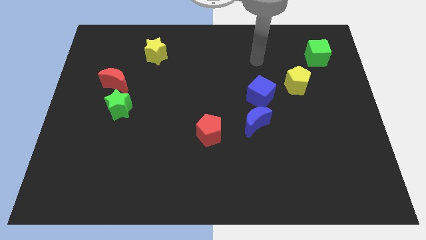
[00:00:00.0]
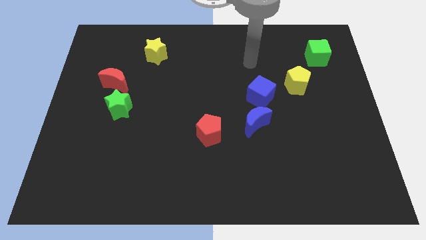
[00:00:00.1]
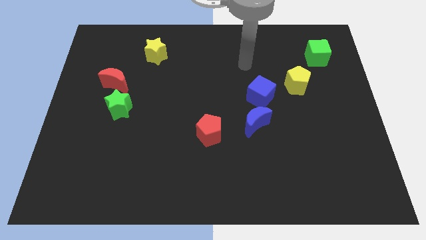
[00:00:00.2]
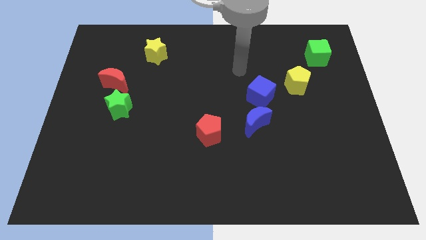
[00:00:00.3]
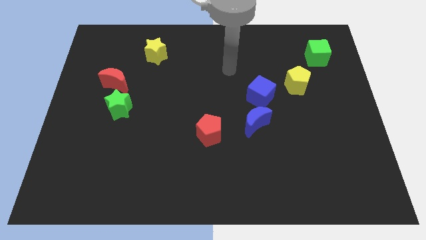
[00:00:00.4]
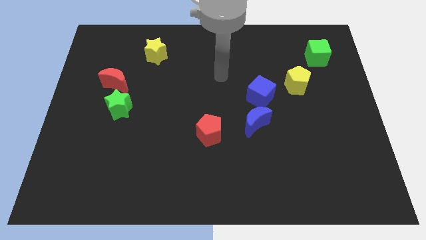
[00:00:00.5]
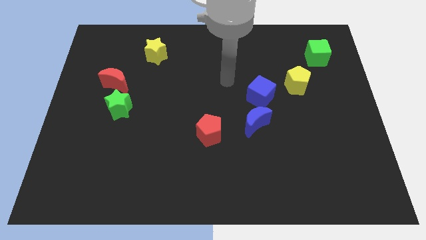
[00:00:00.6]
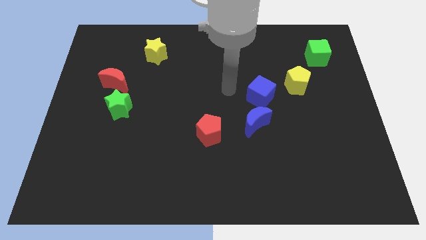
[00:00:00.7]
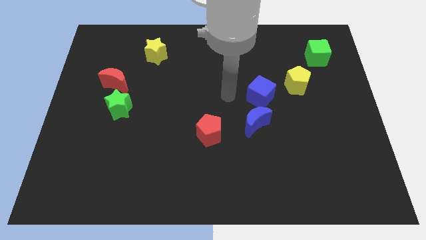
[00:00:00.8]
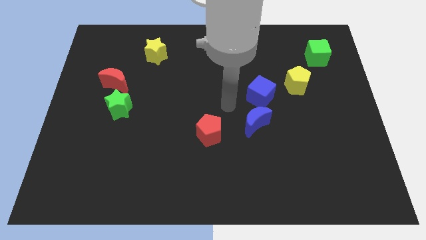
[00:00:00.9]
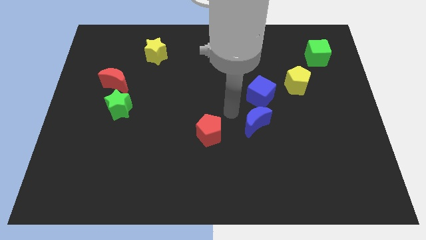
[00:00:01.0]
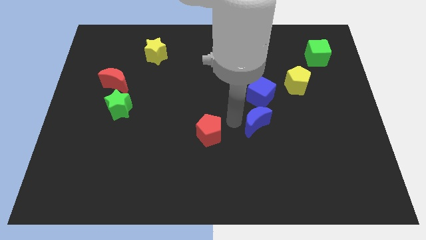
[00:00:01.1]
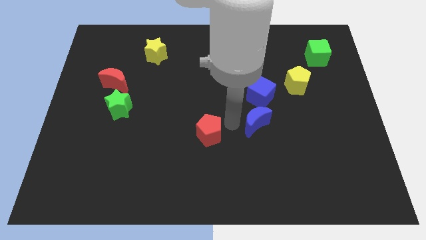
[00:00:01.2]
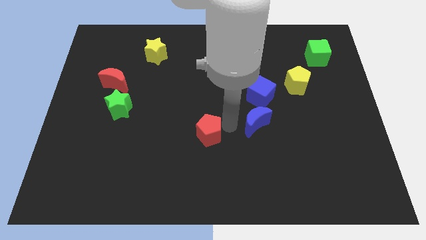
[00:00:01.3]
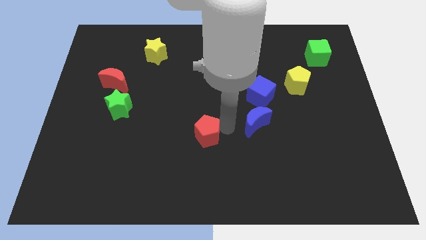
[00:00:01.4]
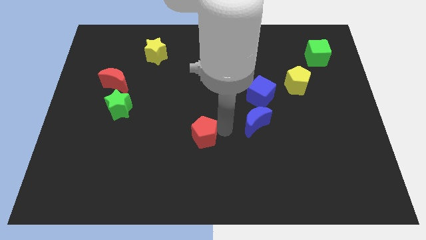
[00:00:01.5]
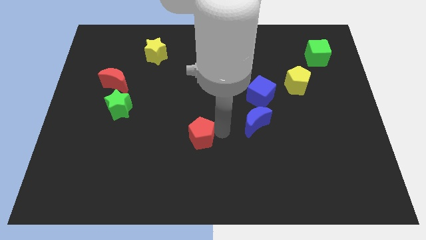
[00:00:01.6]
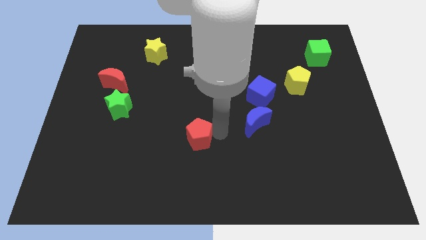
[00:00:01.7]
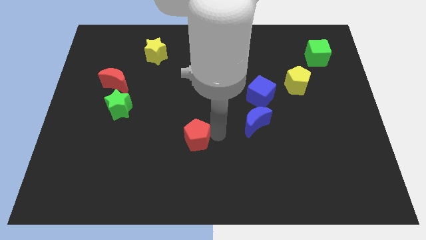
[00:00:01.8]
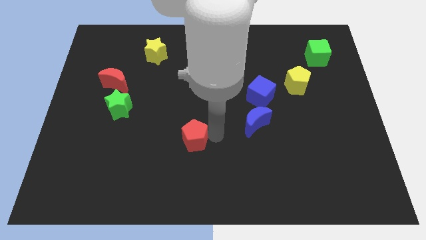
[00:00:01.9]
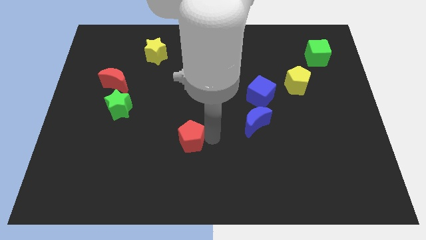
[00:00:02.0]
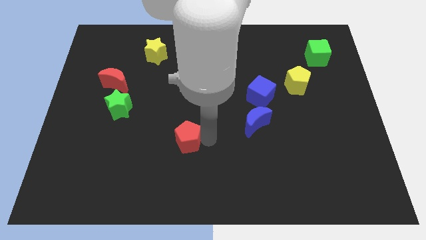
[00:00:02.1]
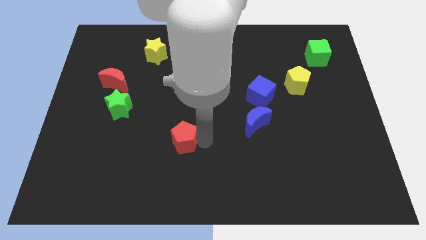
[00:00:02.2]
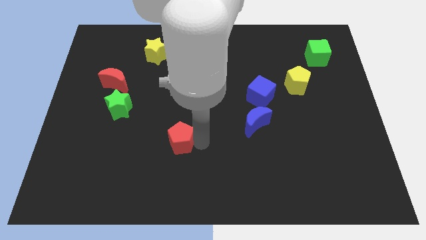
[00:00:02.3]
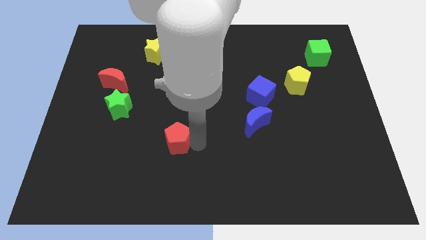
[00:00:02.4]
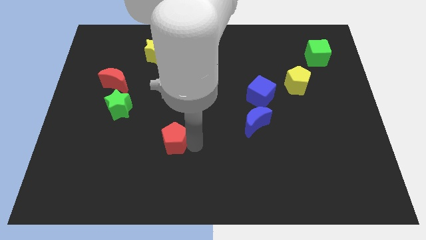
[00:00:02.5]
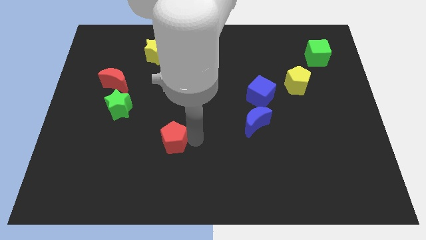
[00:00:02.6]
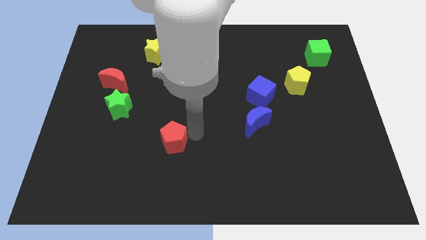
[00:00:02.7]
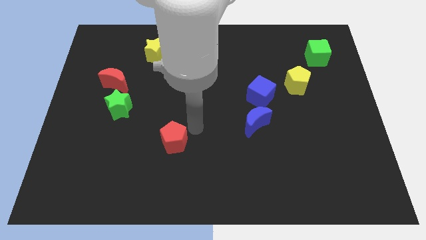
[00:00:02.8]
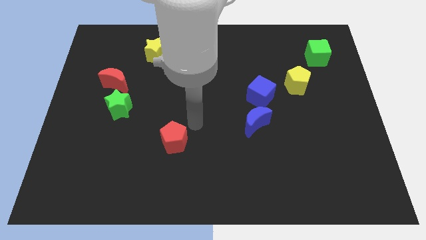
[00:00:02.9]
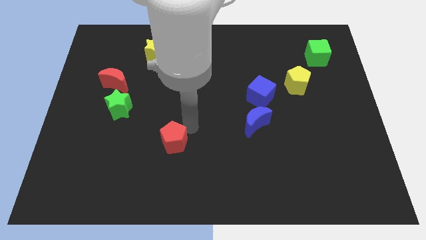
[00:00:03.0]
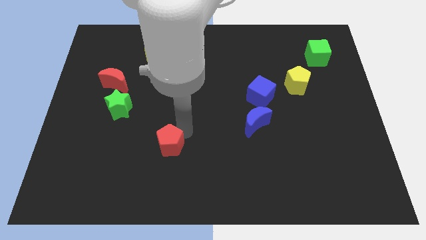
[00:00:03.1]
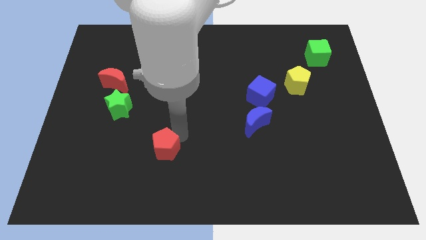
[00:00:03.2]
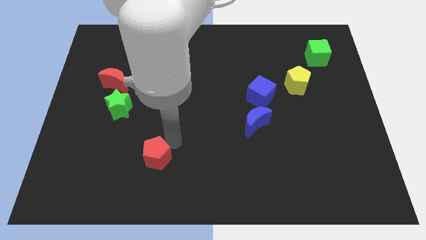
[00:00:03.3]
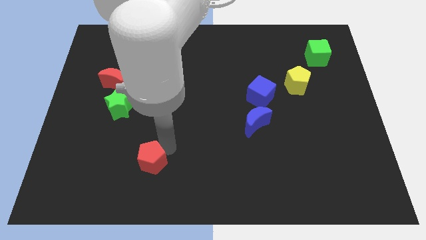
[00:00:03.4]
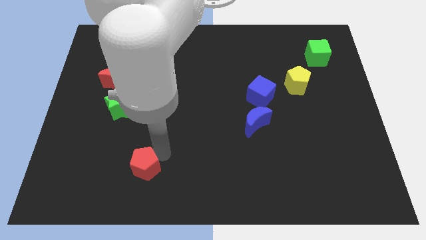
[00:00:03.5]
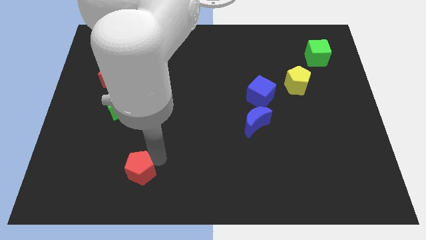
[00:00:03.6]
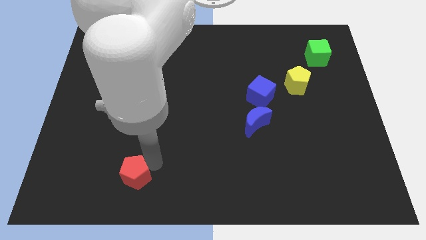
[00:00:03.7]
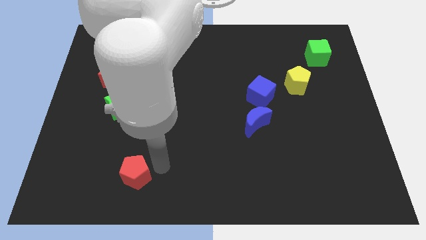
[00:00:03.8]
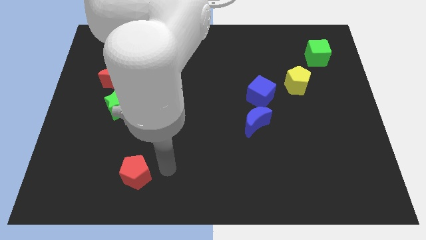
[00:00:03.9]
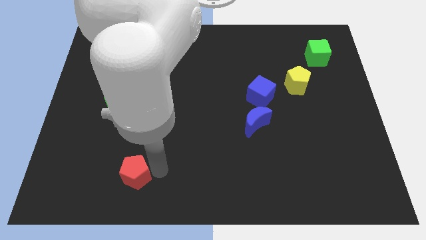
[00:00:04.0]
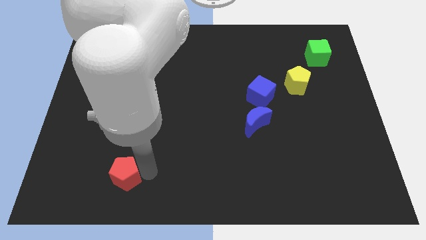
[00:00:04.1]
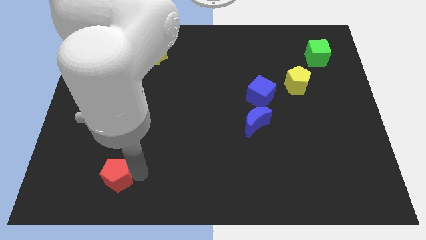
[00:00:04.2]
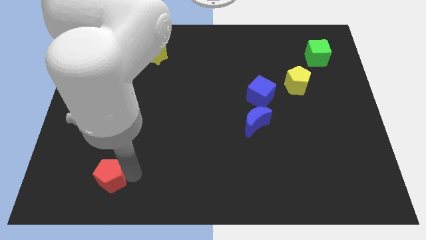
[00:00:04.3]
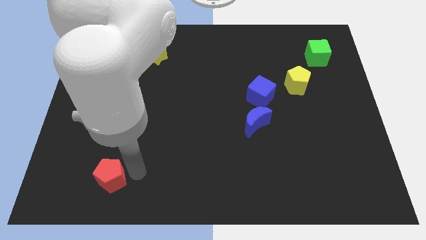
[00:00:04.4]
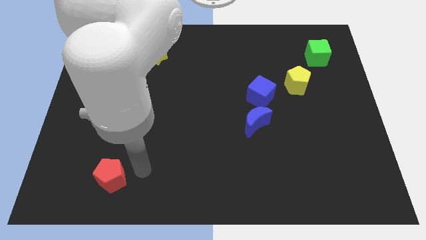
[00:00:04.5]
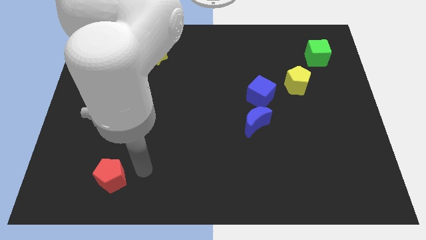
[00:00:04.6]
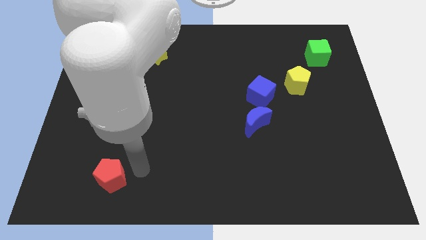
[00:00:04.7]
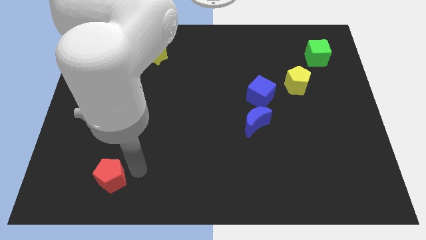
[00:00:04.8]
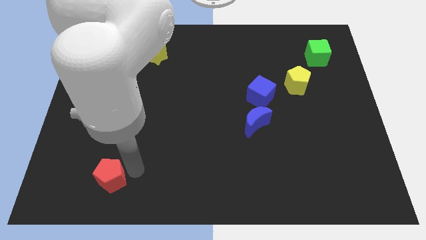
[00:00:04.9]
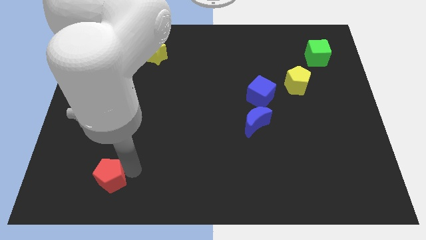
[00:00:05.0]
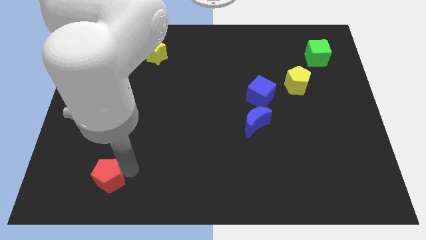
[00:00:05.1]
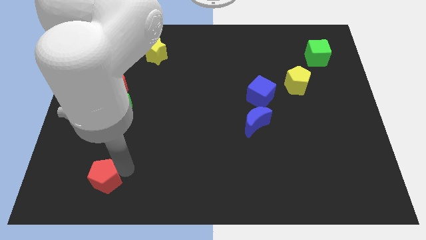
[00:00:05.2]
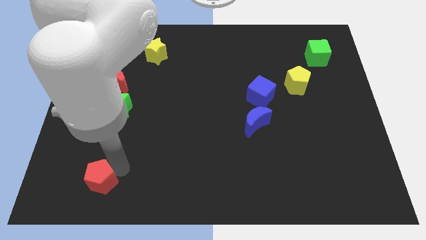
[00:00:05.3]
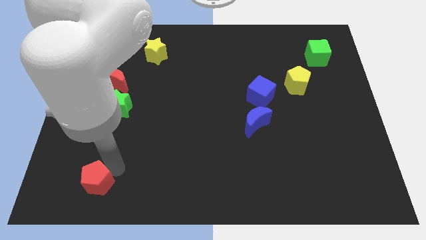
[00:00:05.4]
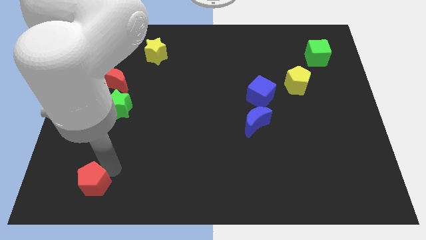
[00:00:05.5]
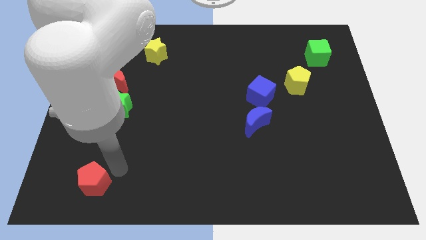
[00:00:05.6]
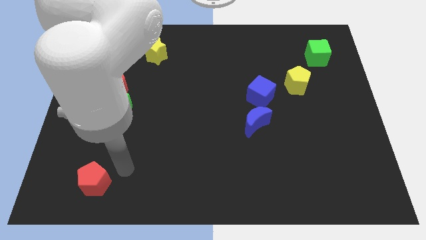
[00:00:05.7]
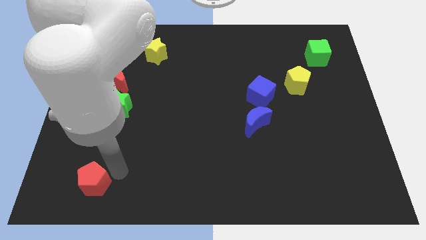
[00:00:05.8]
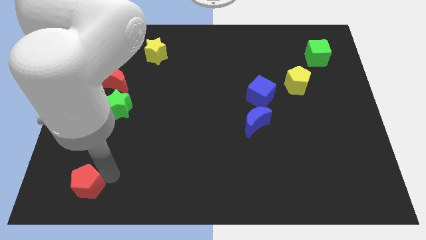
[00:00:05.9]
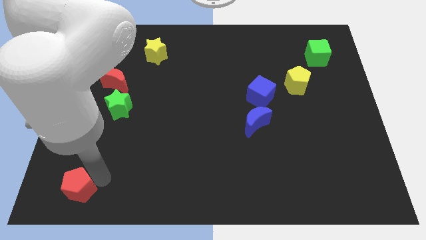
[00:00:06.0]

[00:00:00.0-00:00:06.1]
put the red pentagon to the bottom left corner
